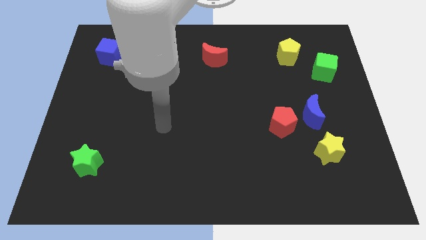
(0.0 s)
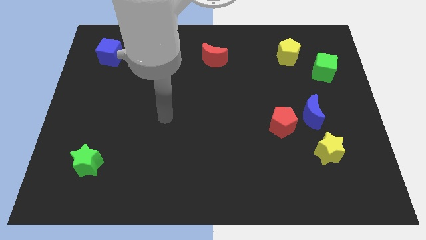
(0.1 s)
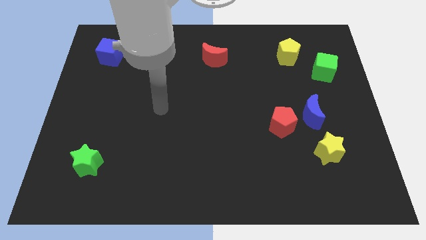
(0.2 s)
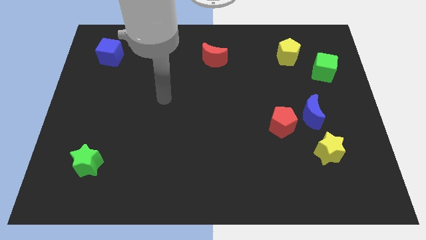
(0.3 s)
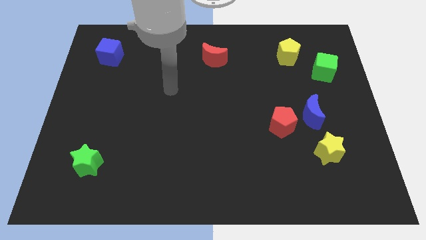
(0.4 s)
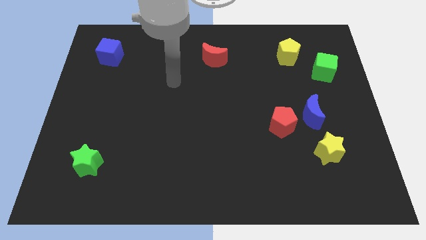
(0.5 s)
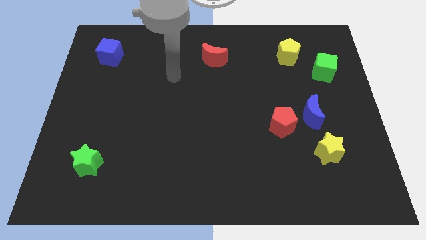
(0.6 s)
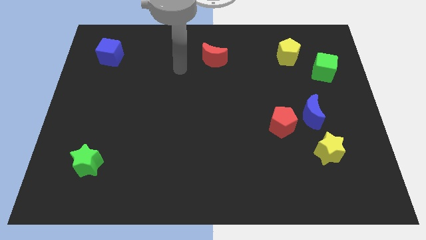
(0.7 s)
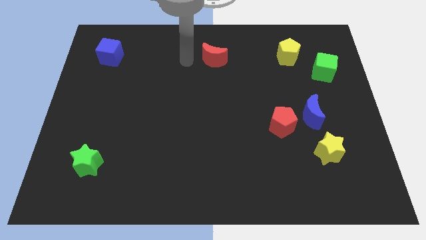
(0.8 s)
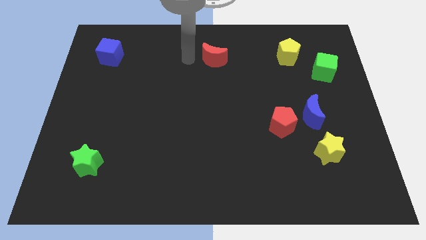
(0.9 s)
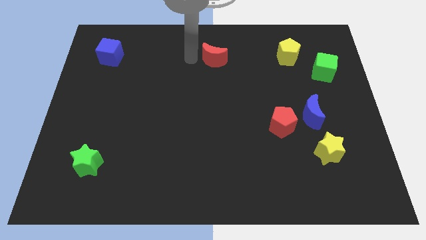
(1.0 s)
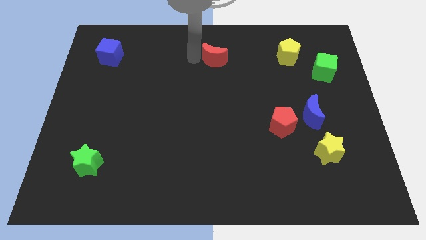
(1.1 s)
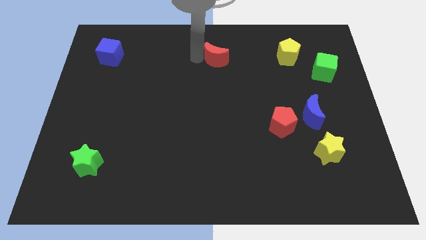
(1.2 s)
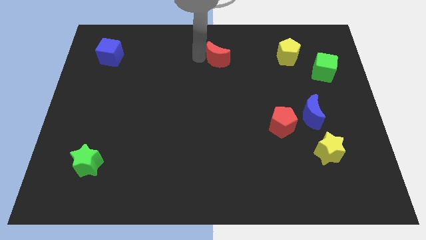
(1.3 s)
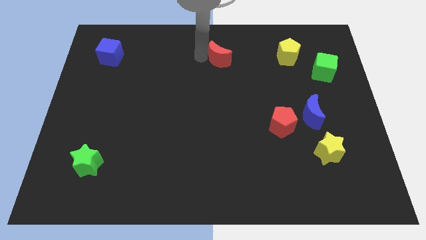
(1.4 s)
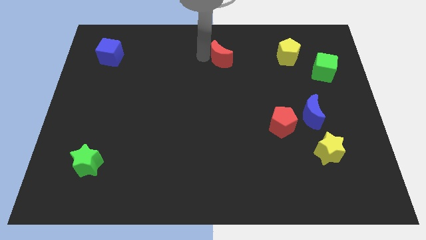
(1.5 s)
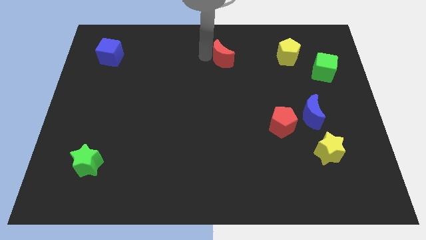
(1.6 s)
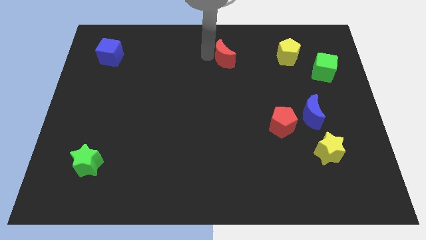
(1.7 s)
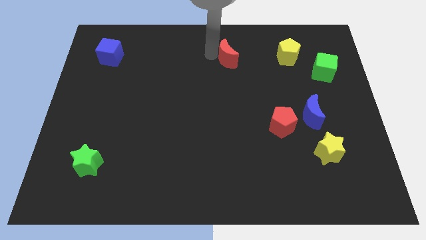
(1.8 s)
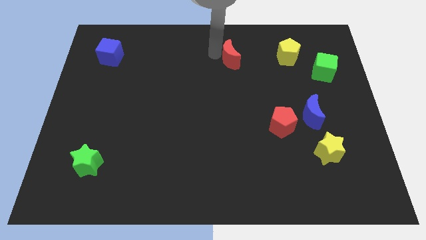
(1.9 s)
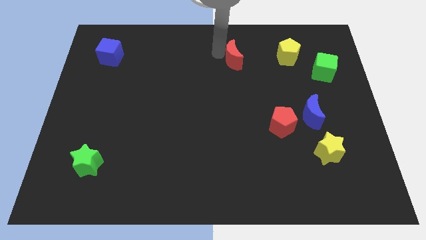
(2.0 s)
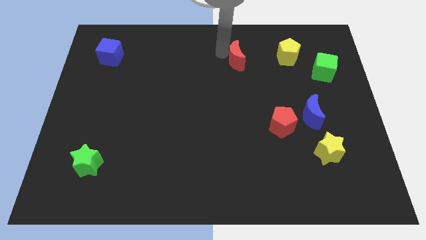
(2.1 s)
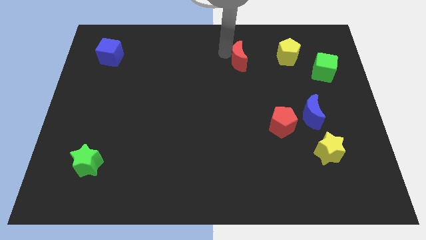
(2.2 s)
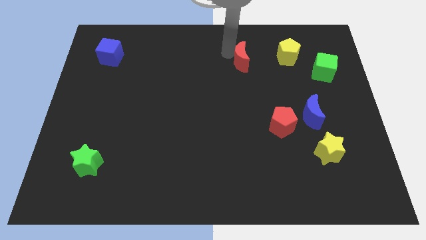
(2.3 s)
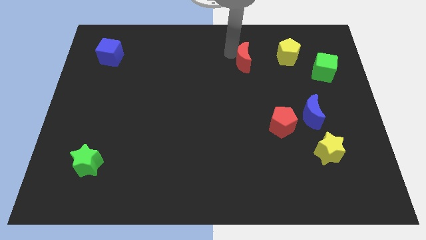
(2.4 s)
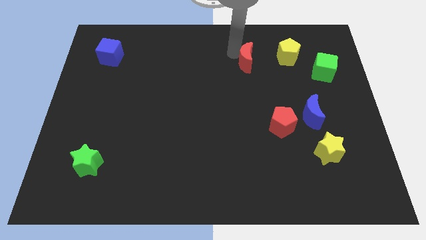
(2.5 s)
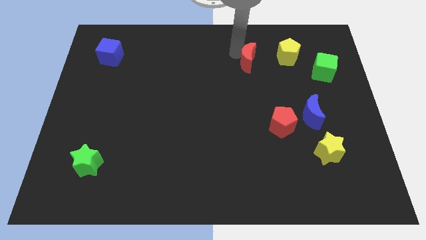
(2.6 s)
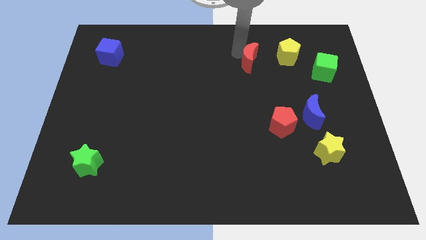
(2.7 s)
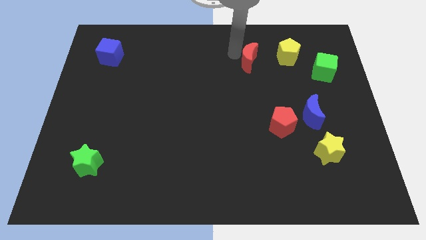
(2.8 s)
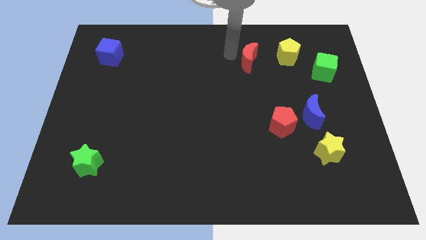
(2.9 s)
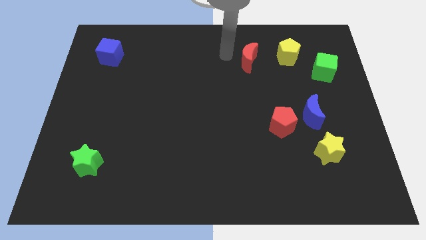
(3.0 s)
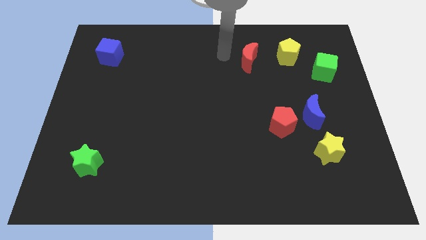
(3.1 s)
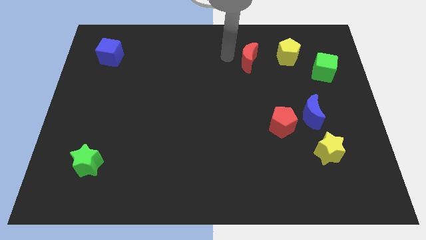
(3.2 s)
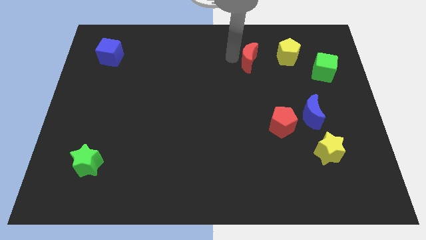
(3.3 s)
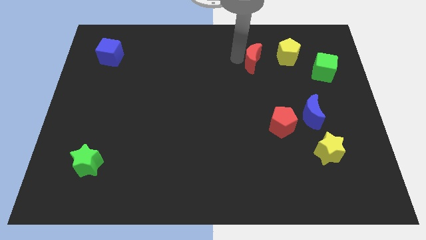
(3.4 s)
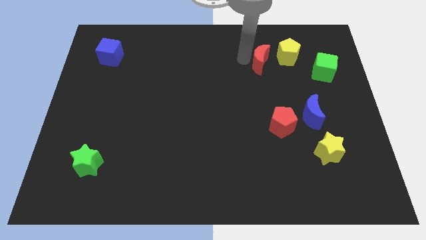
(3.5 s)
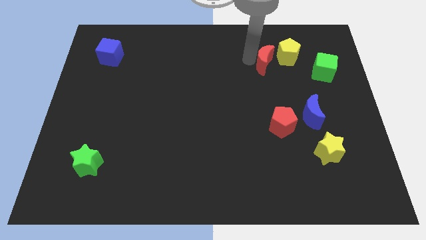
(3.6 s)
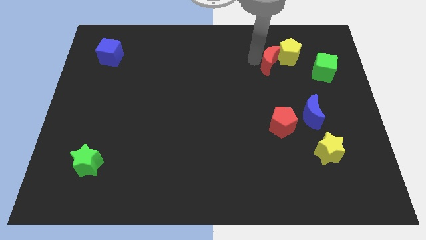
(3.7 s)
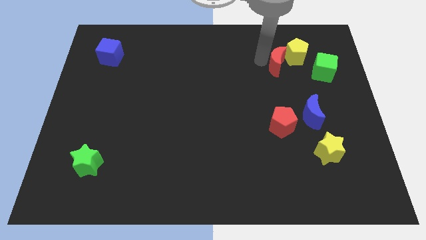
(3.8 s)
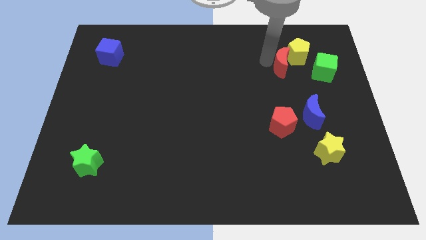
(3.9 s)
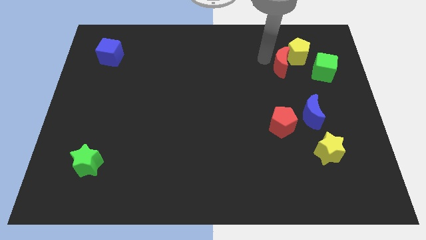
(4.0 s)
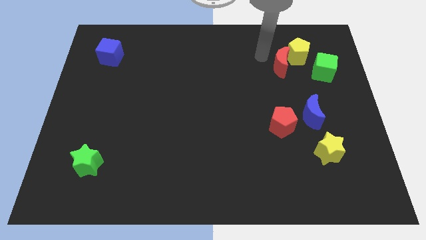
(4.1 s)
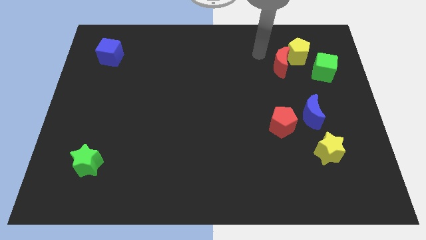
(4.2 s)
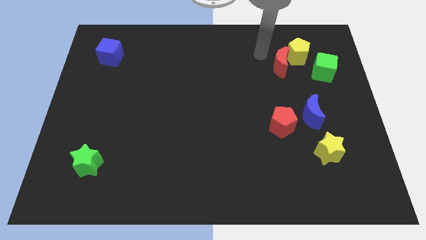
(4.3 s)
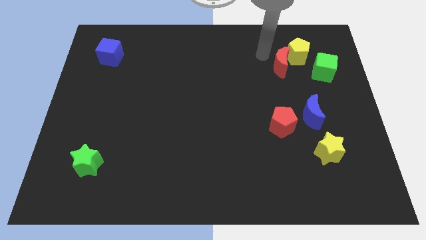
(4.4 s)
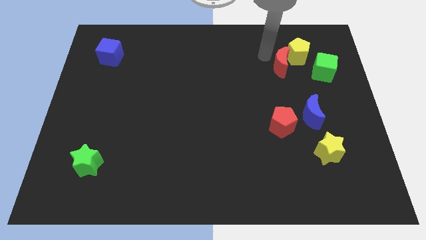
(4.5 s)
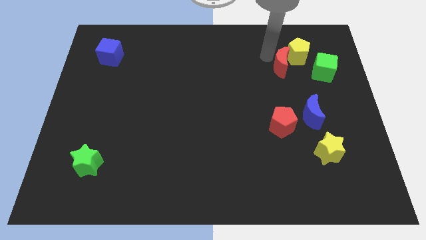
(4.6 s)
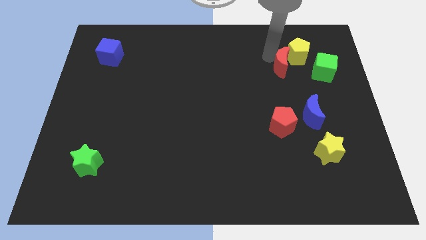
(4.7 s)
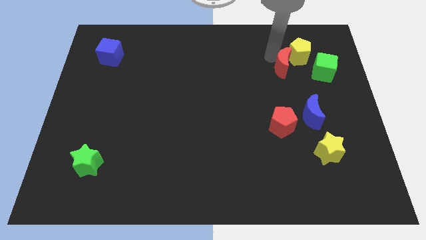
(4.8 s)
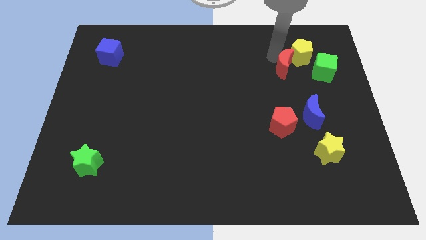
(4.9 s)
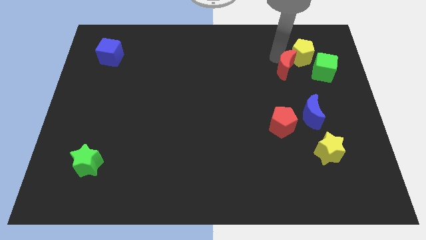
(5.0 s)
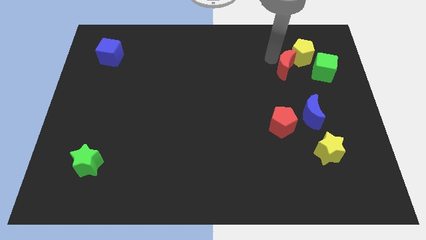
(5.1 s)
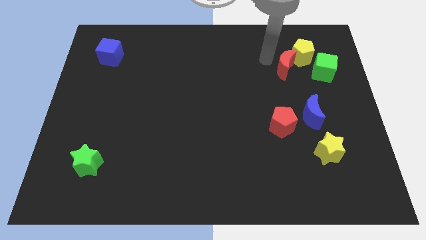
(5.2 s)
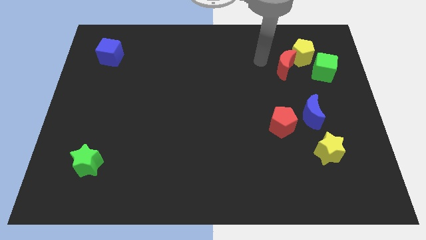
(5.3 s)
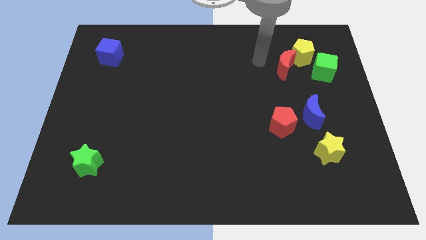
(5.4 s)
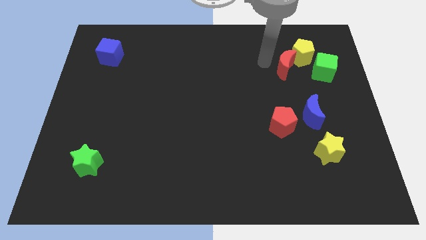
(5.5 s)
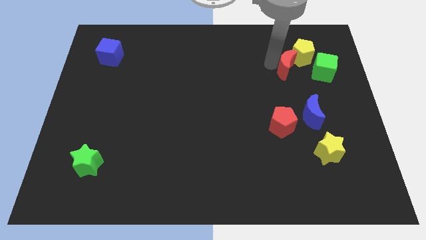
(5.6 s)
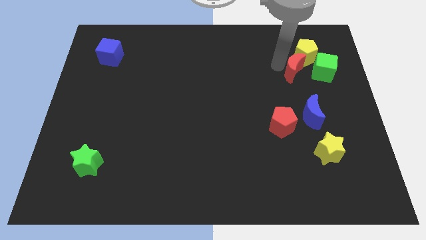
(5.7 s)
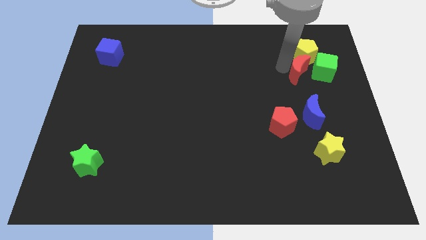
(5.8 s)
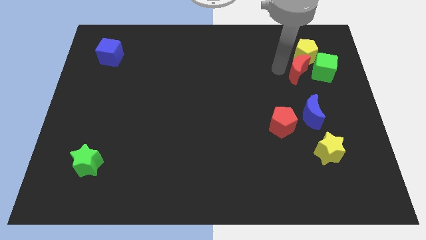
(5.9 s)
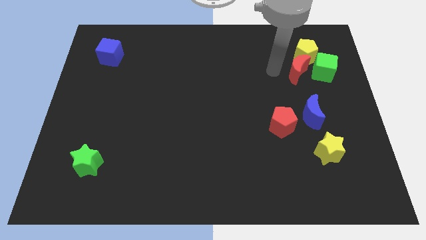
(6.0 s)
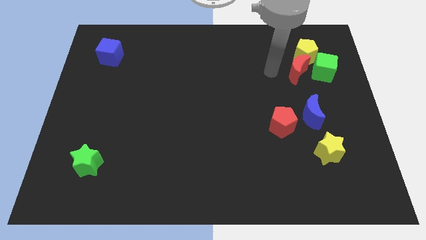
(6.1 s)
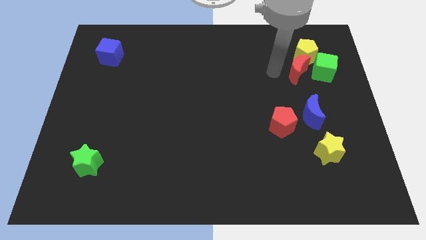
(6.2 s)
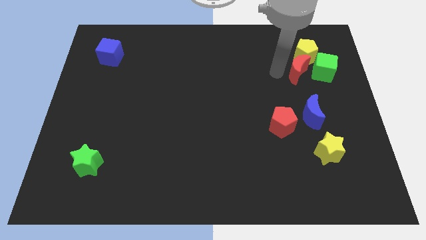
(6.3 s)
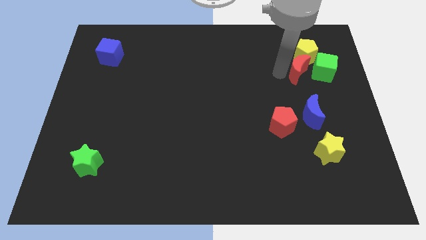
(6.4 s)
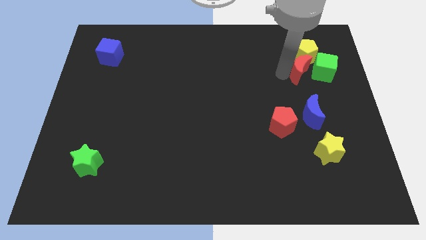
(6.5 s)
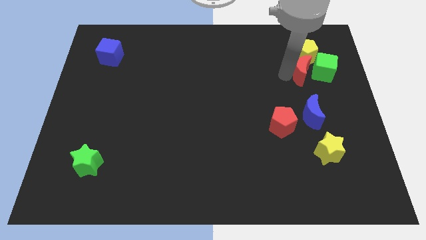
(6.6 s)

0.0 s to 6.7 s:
put the red moon close to the green cube

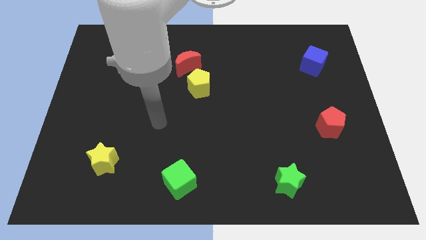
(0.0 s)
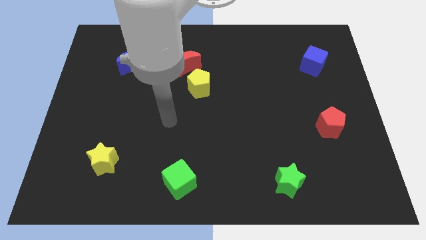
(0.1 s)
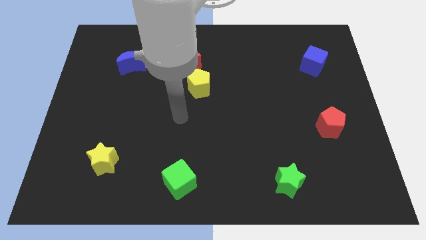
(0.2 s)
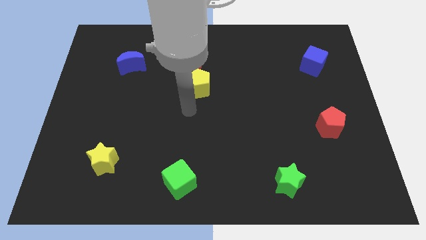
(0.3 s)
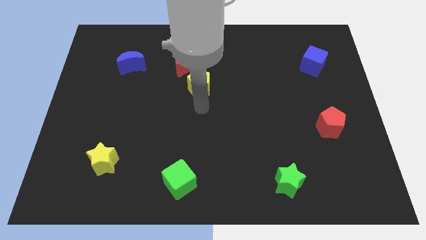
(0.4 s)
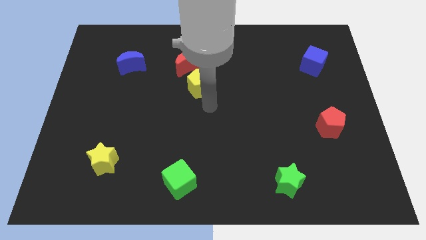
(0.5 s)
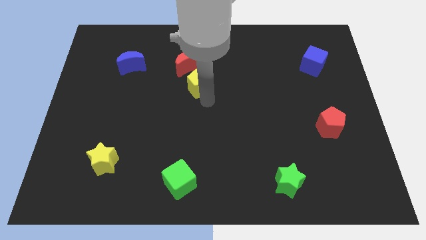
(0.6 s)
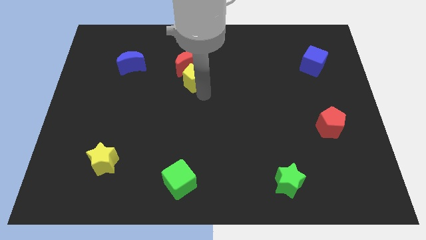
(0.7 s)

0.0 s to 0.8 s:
push the yellow pentagon towards the red moon
